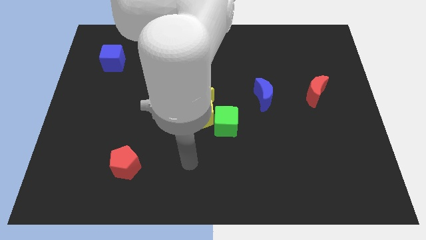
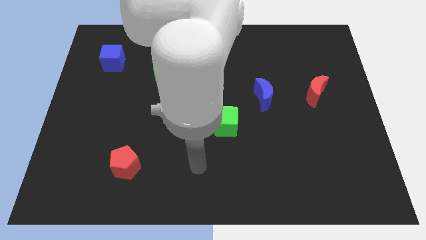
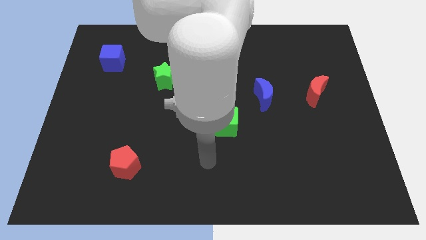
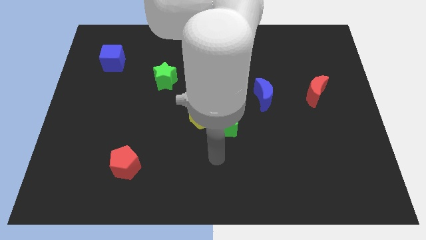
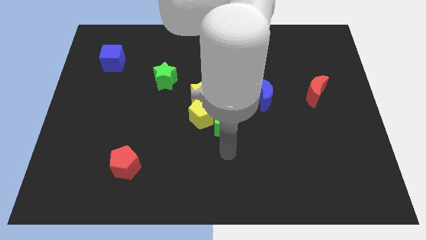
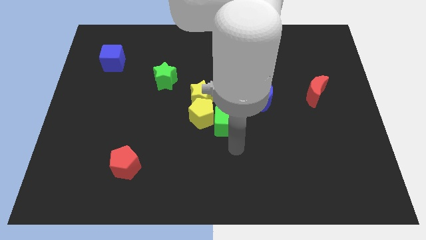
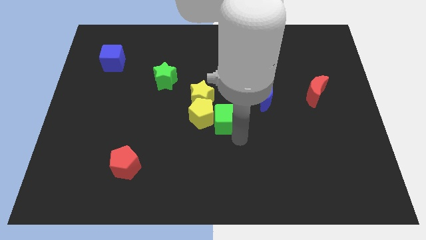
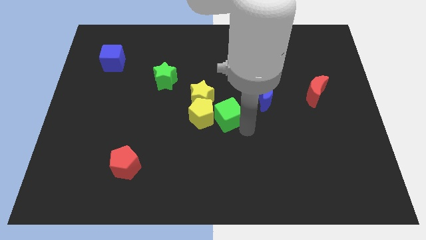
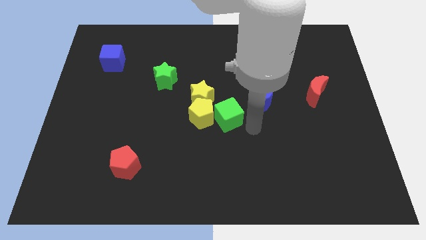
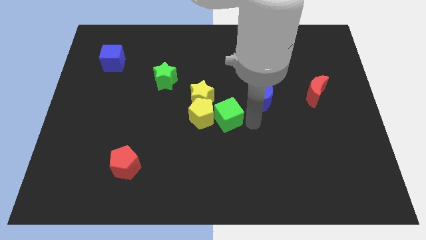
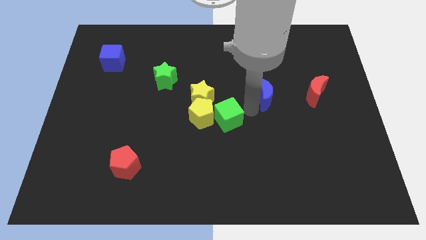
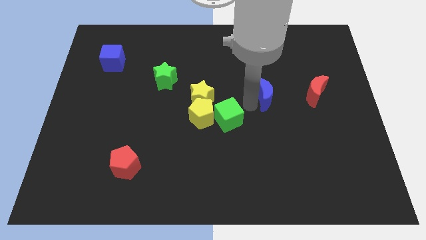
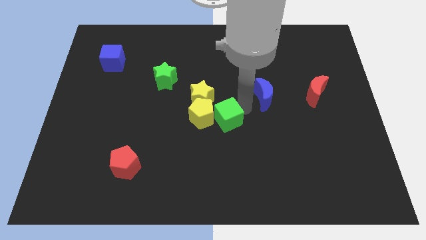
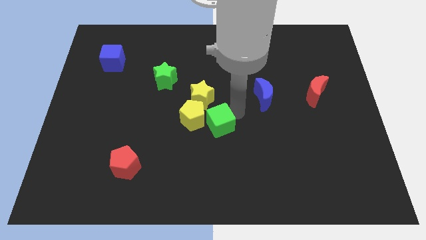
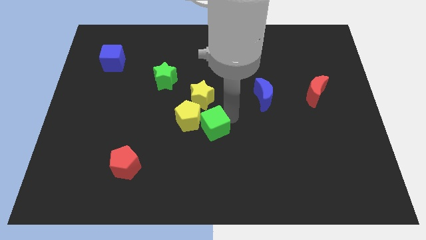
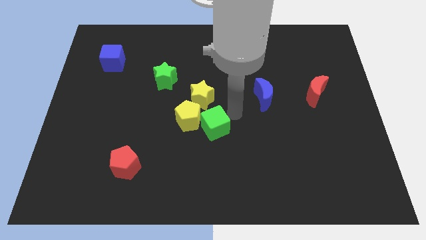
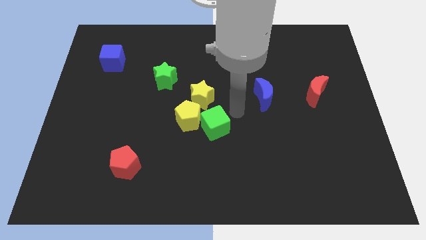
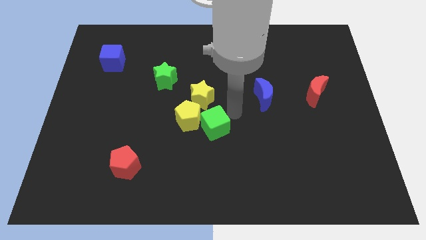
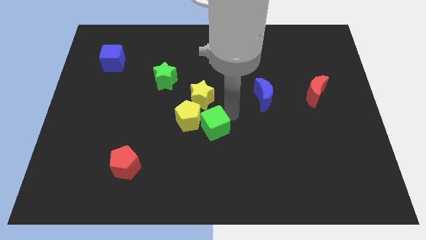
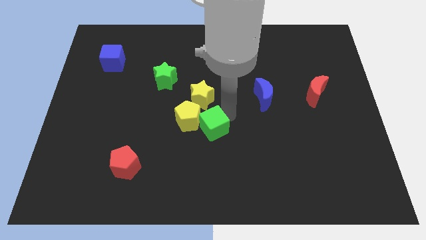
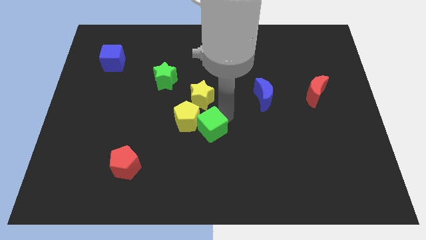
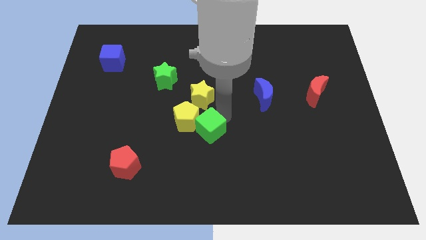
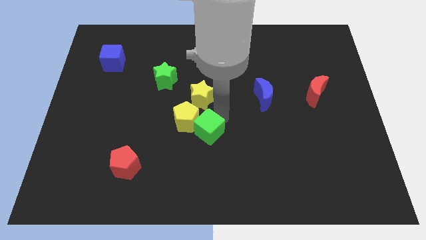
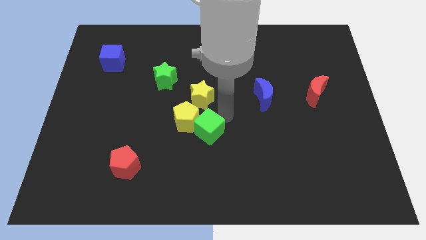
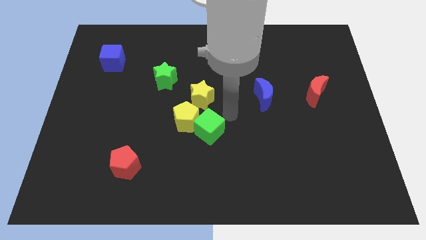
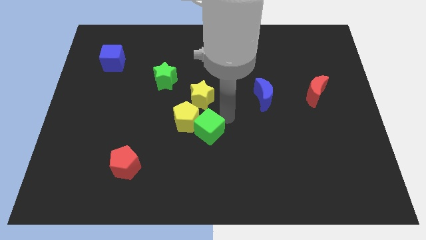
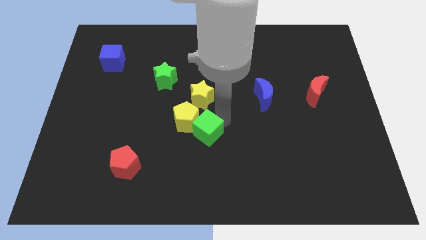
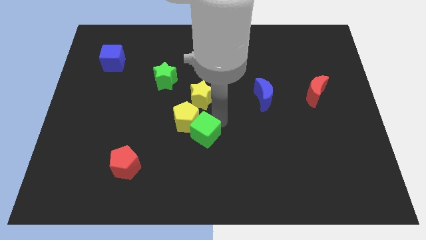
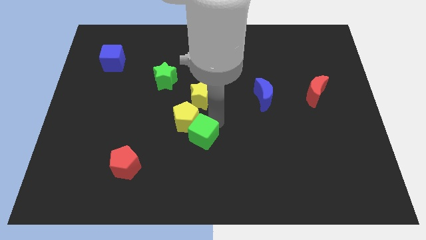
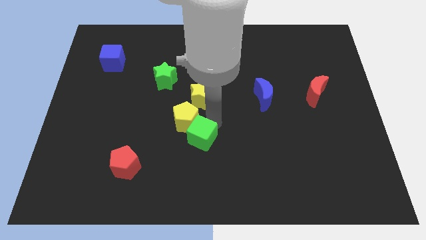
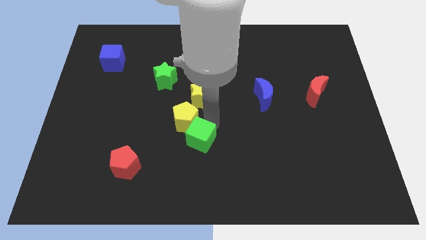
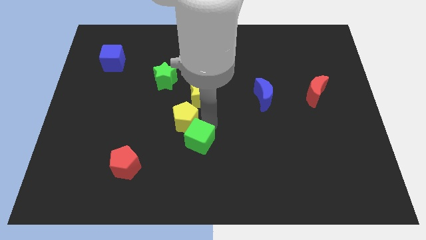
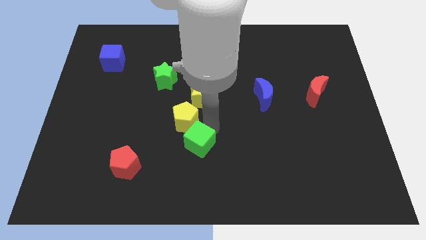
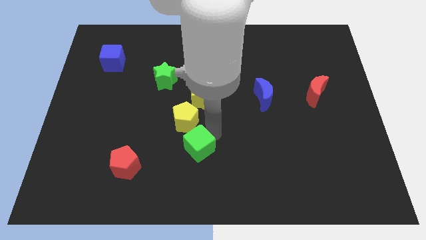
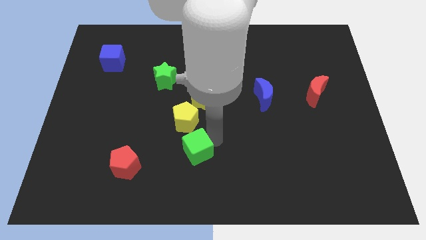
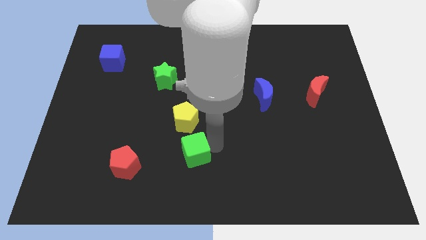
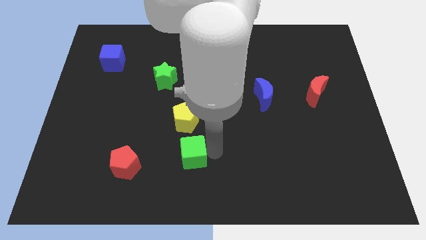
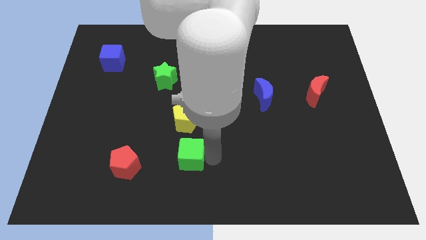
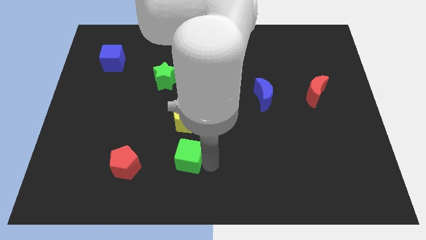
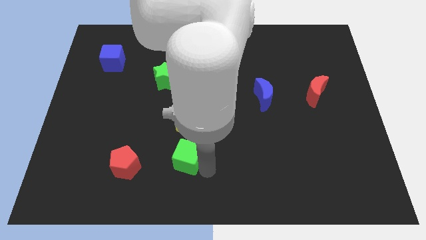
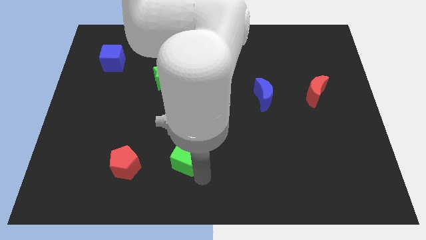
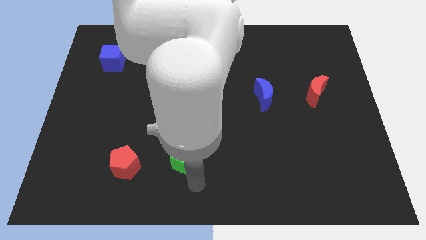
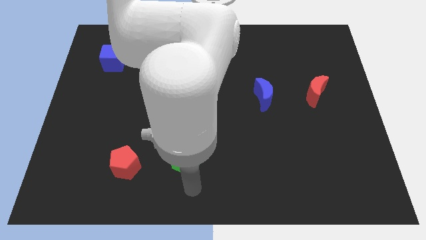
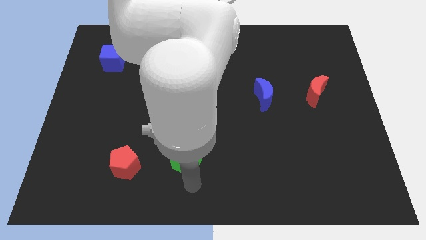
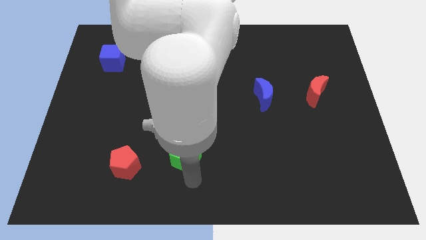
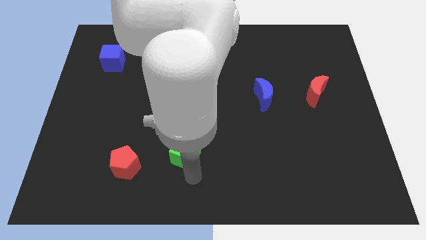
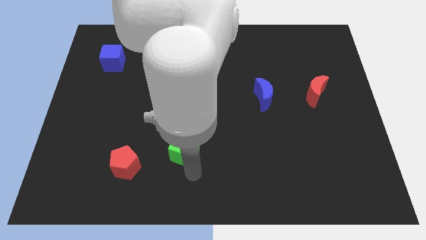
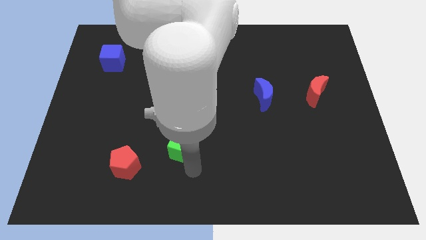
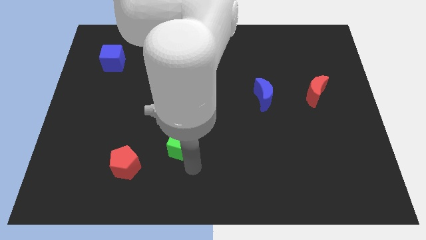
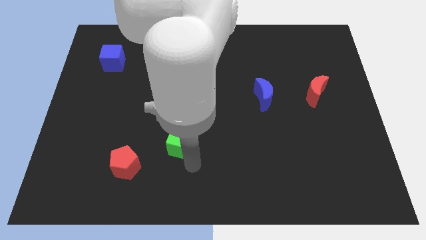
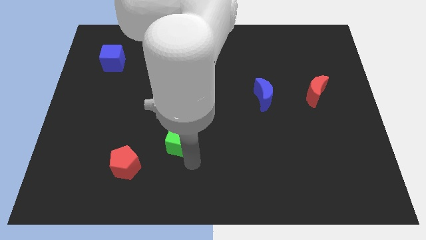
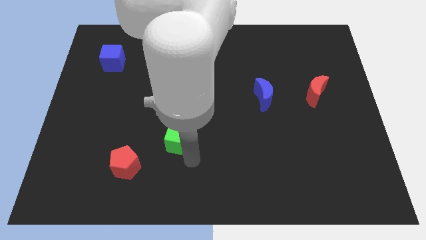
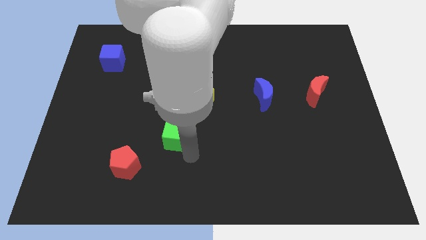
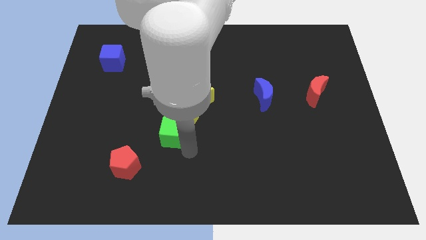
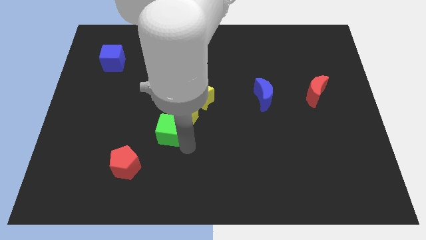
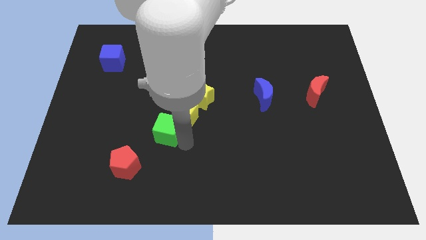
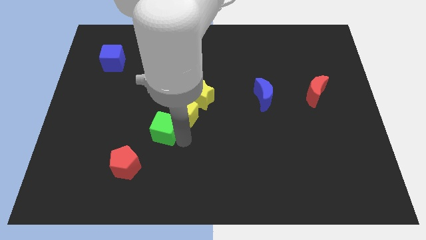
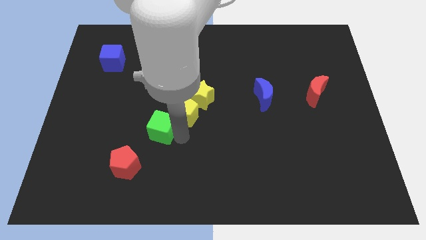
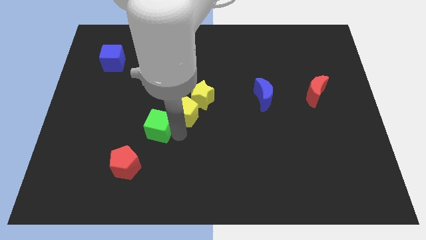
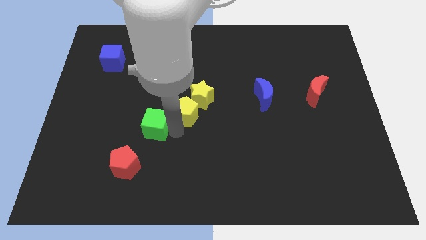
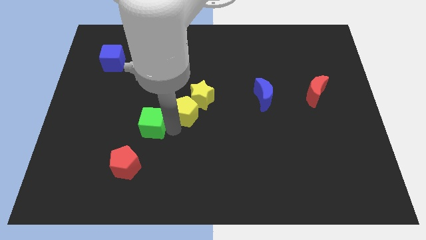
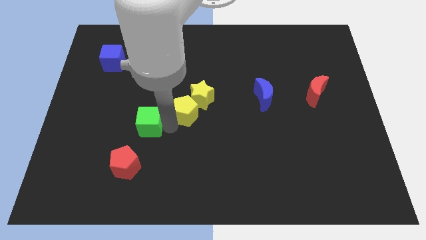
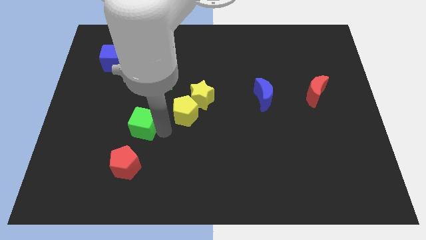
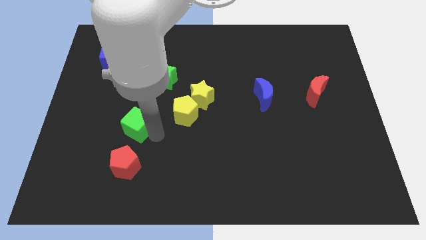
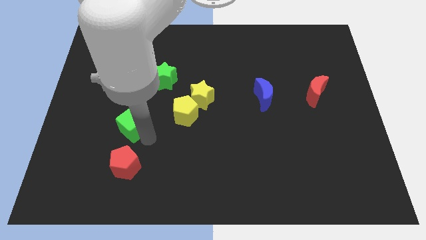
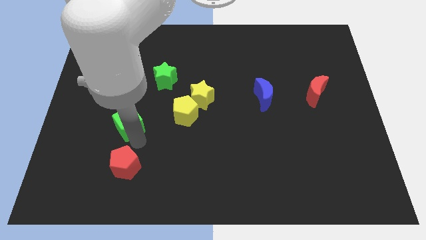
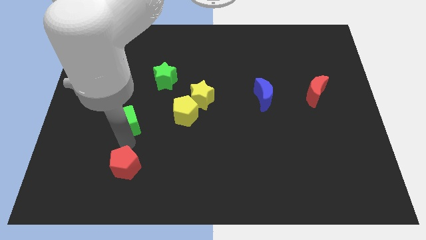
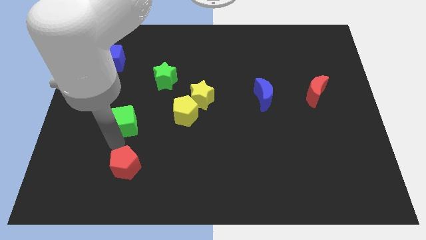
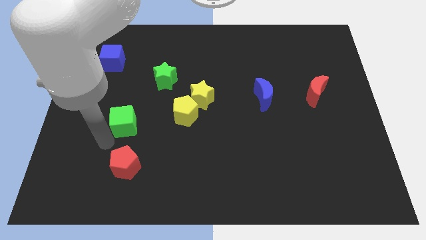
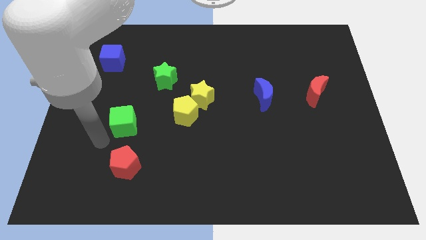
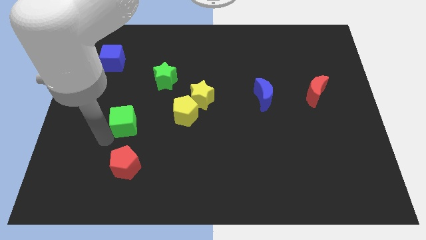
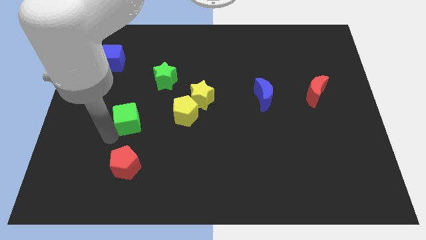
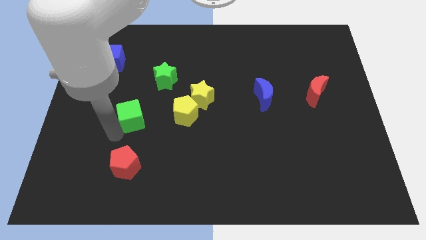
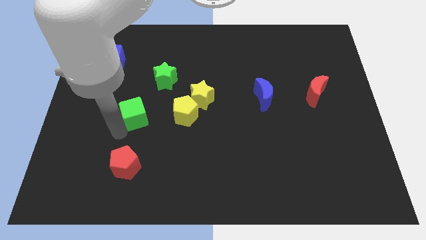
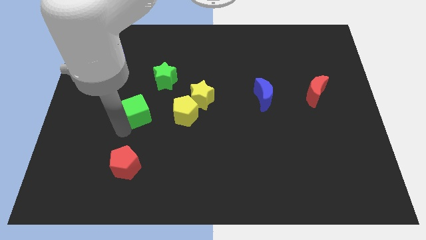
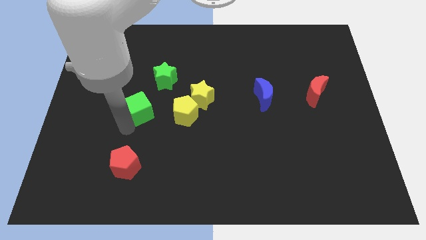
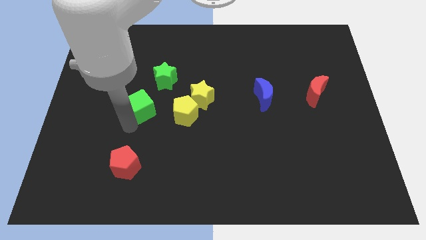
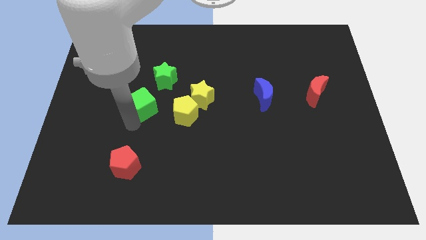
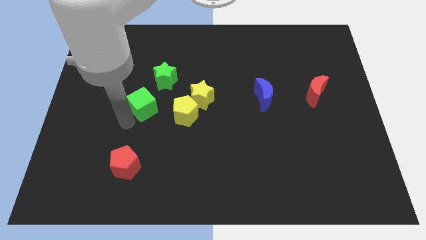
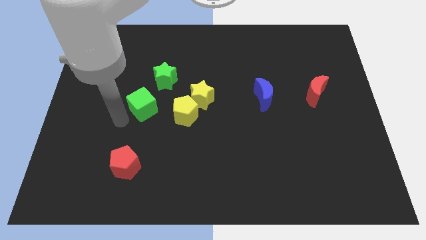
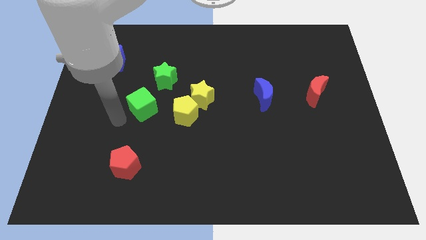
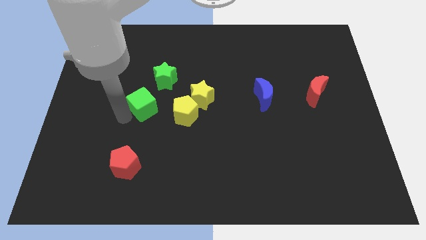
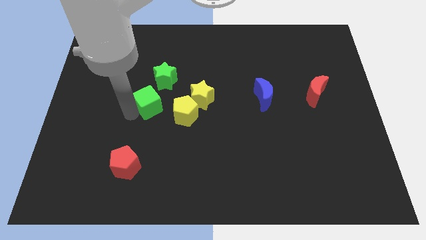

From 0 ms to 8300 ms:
push the green cube to the top left side of the yellow pentagon
